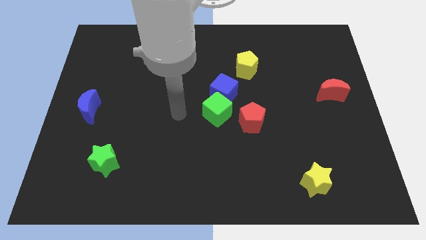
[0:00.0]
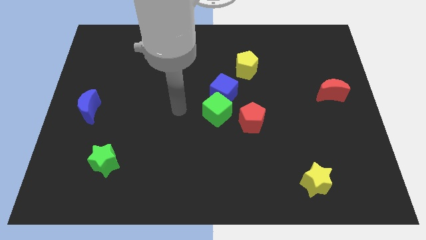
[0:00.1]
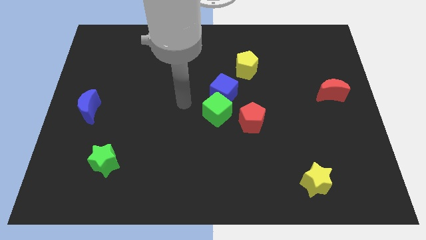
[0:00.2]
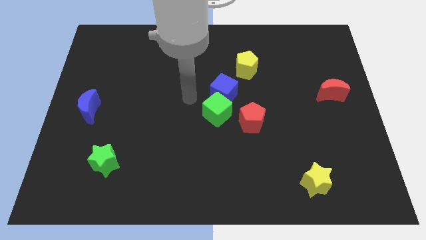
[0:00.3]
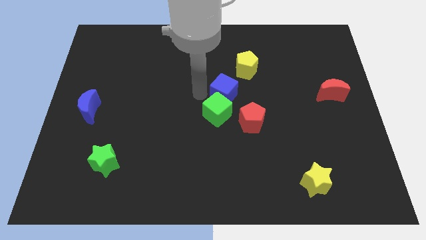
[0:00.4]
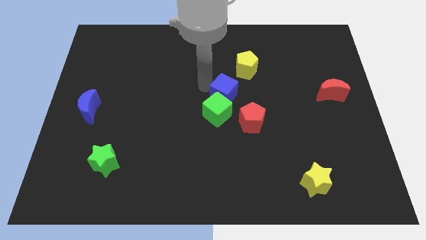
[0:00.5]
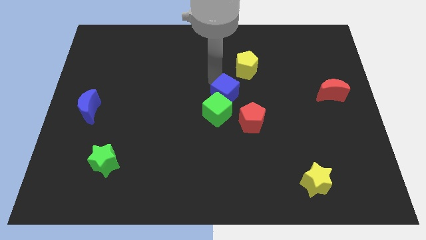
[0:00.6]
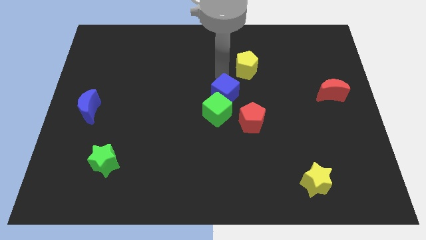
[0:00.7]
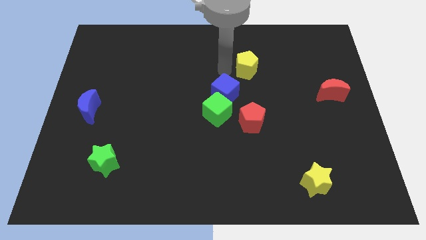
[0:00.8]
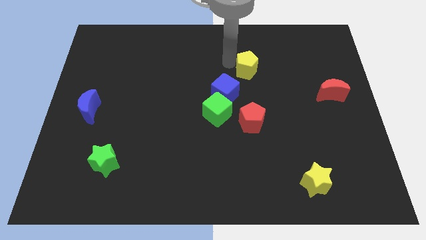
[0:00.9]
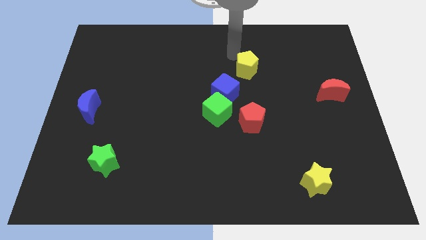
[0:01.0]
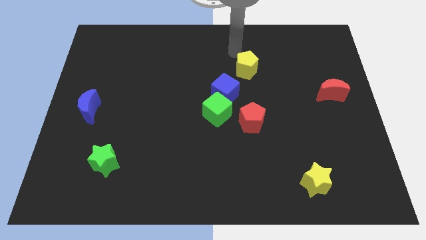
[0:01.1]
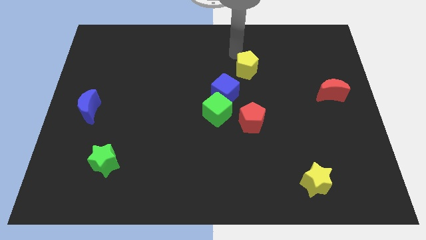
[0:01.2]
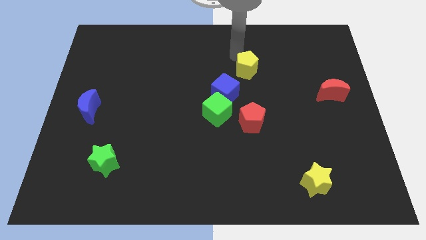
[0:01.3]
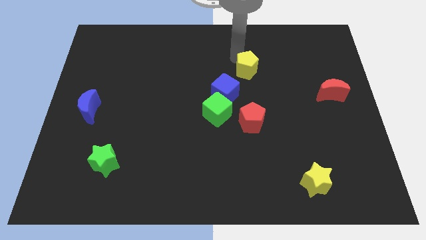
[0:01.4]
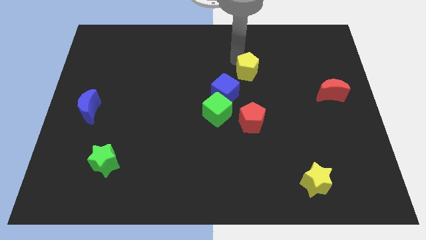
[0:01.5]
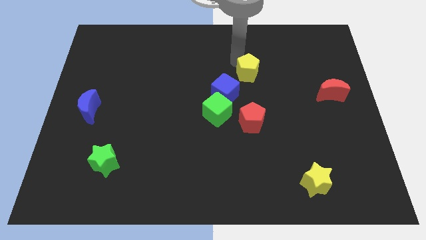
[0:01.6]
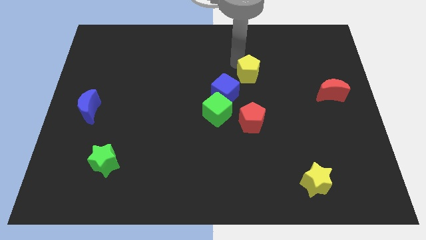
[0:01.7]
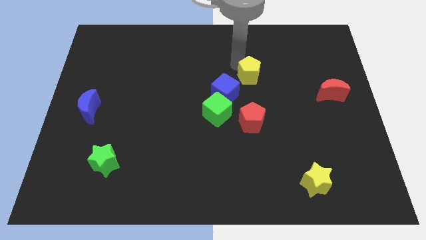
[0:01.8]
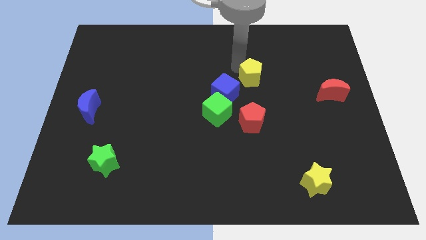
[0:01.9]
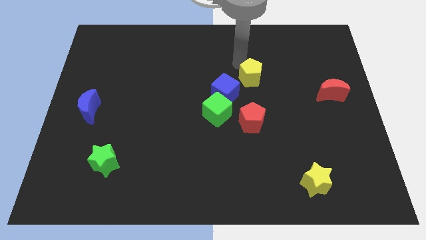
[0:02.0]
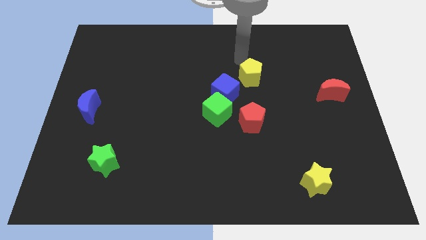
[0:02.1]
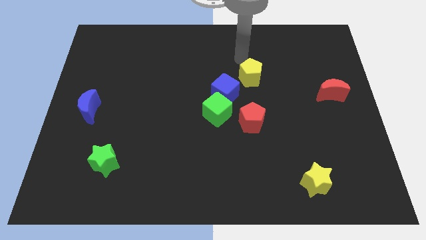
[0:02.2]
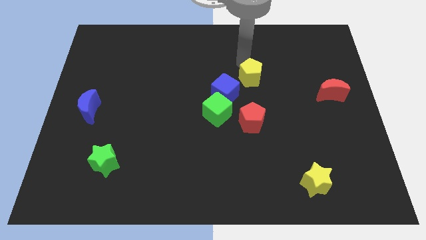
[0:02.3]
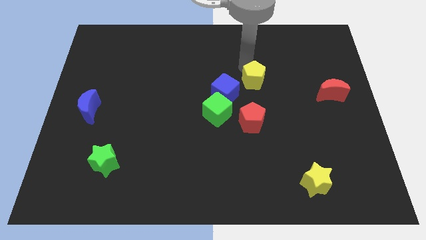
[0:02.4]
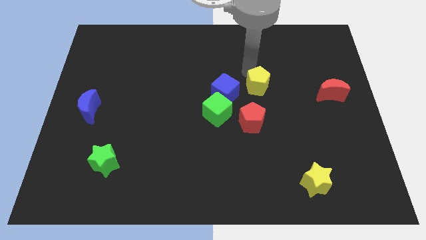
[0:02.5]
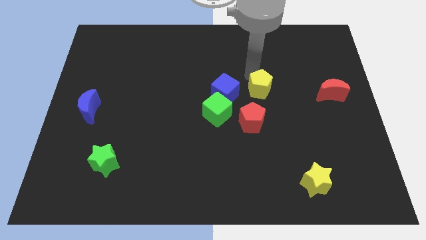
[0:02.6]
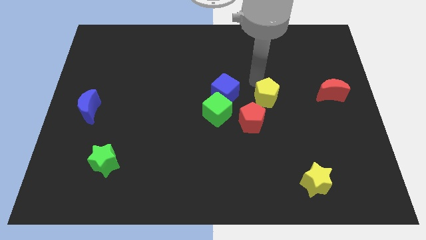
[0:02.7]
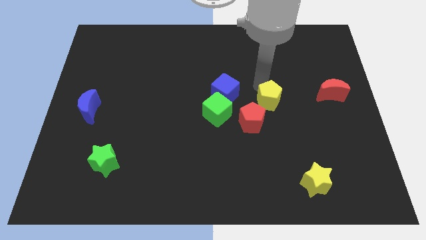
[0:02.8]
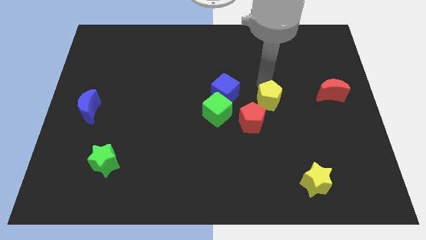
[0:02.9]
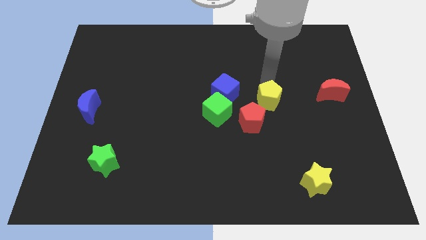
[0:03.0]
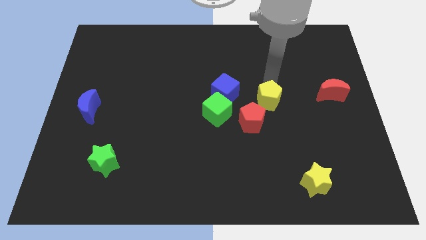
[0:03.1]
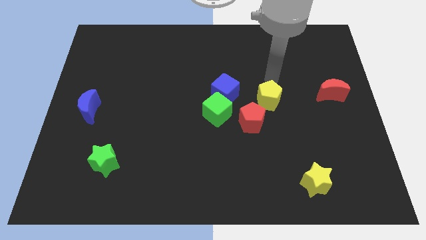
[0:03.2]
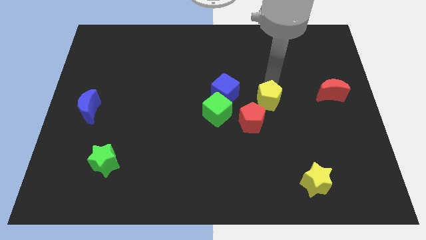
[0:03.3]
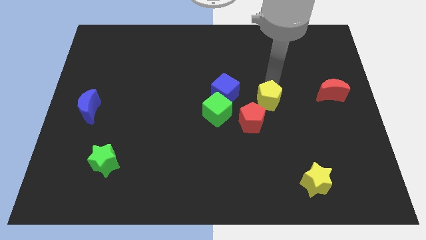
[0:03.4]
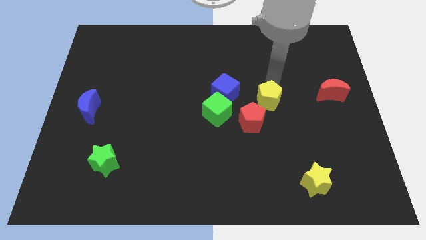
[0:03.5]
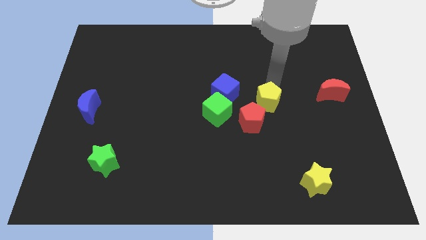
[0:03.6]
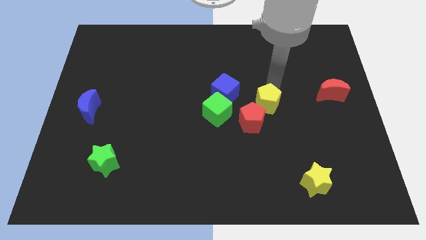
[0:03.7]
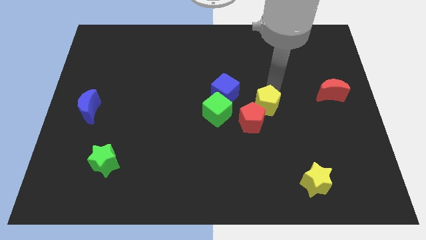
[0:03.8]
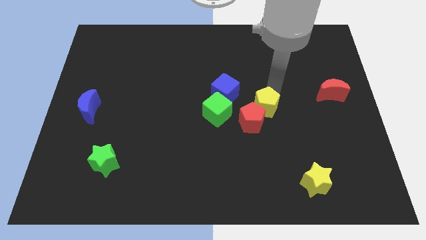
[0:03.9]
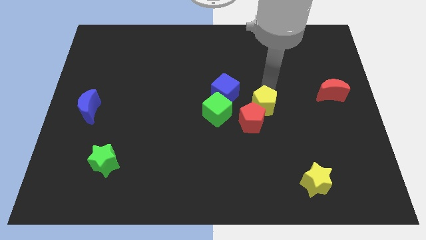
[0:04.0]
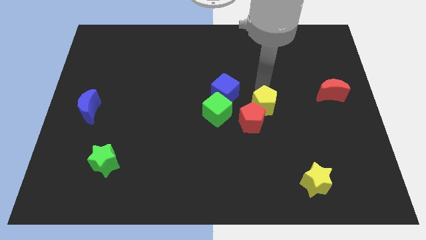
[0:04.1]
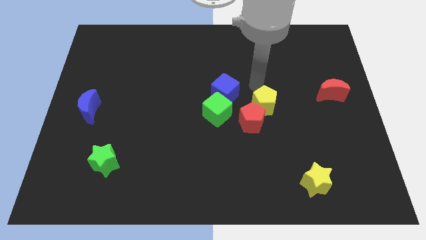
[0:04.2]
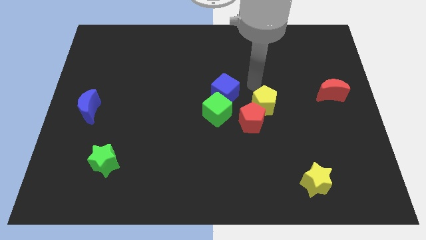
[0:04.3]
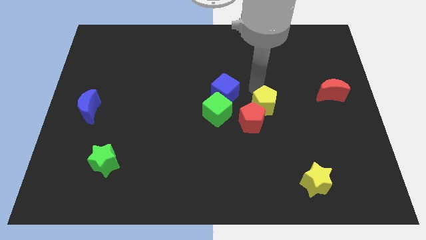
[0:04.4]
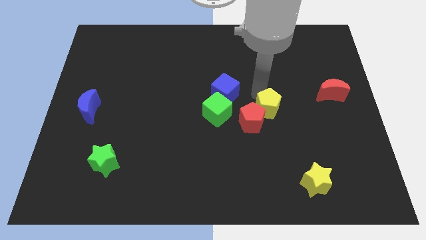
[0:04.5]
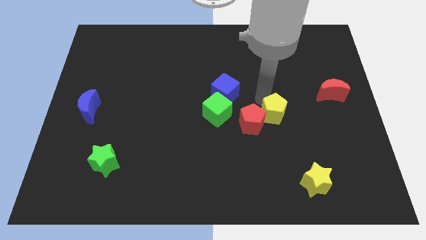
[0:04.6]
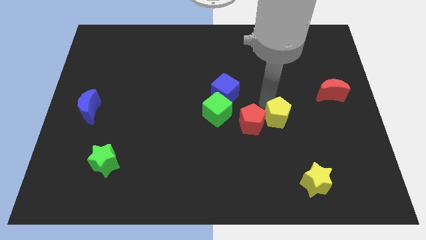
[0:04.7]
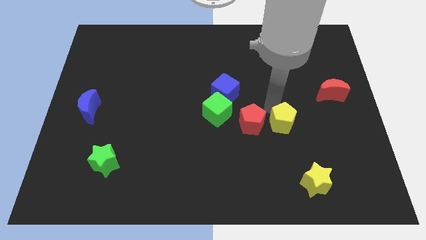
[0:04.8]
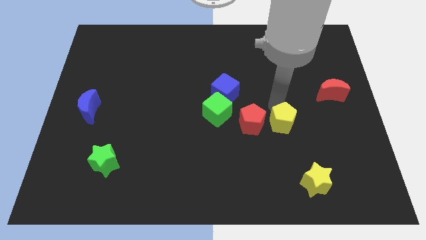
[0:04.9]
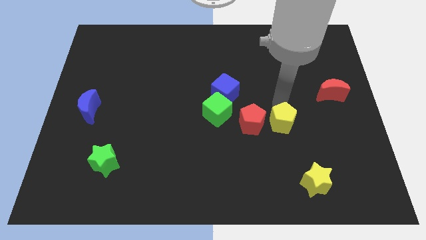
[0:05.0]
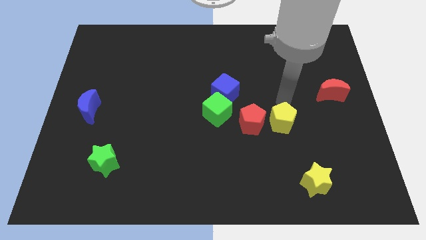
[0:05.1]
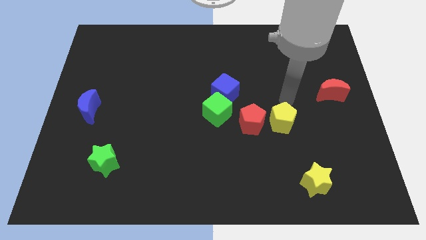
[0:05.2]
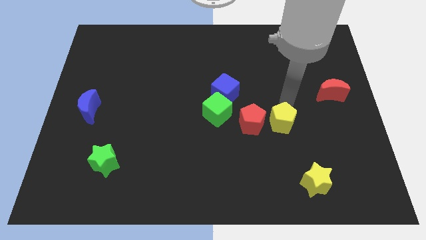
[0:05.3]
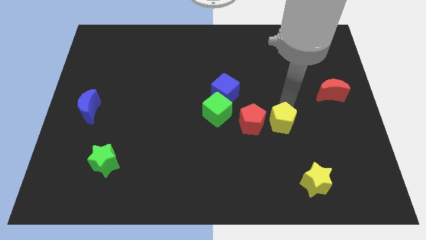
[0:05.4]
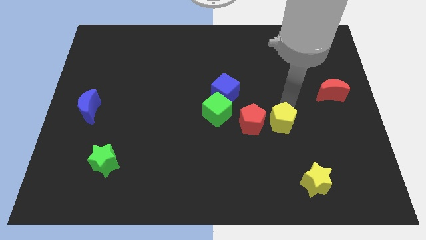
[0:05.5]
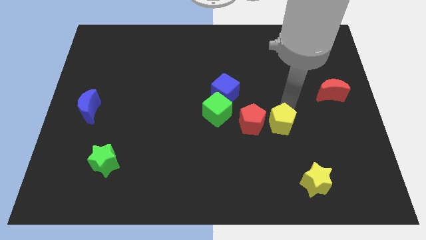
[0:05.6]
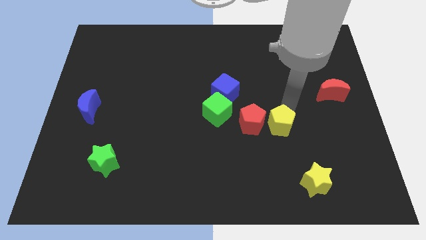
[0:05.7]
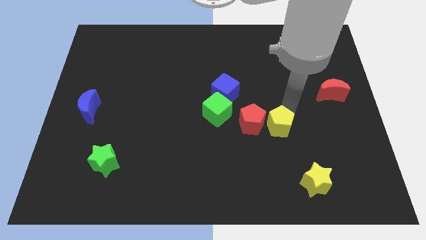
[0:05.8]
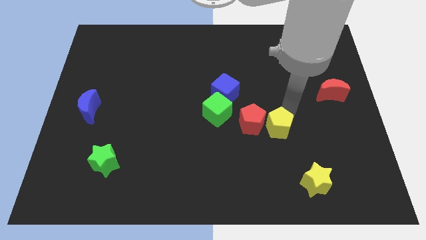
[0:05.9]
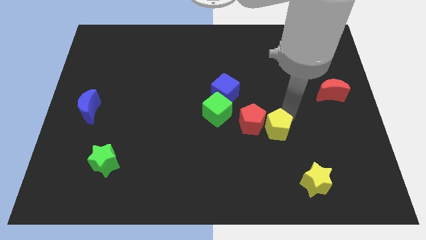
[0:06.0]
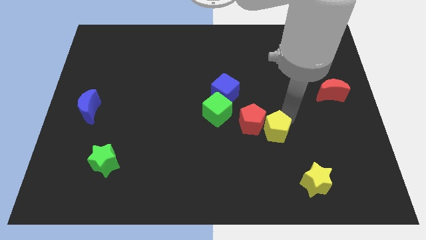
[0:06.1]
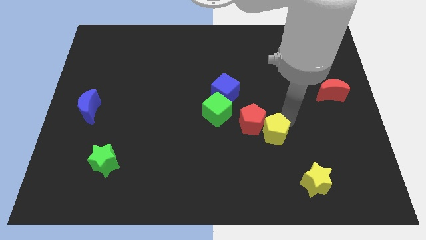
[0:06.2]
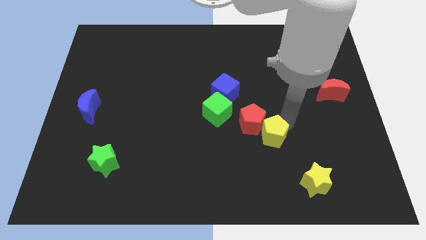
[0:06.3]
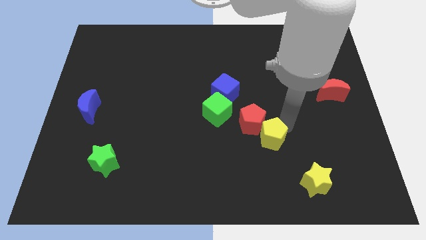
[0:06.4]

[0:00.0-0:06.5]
push the yellow pentagon downwards

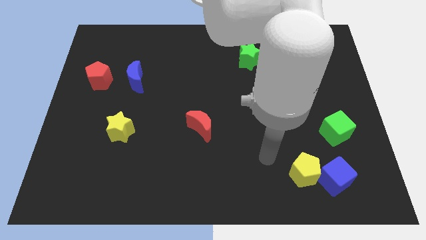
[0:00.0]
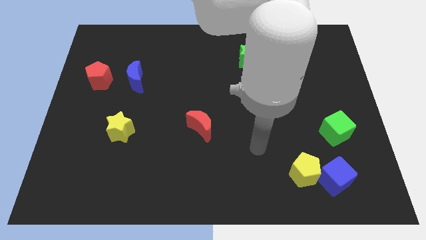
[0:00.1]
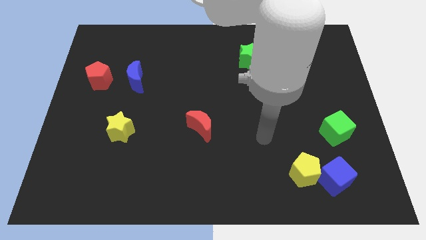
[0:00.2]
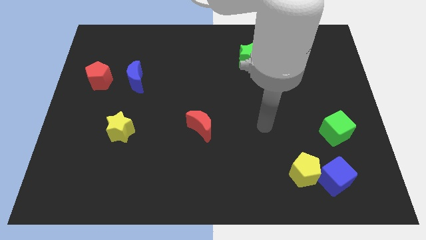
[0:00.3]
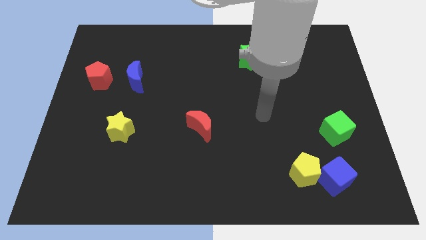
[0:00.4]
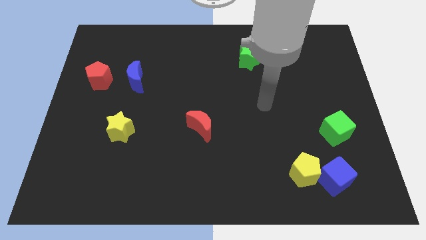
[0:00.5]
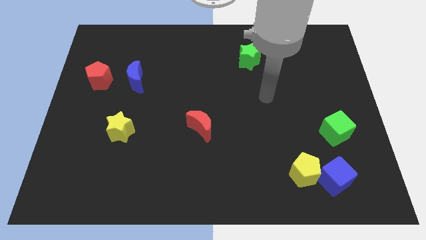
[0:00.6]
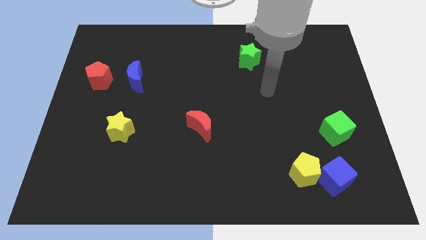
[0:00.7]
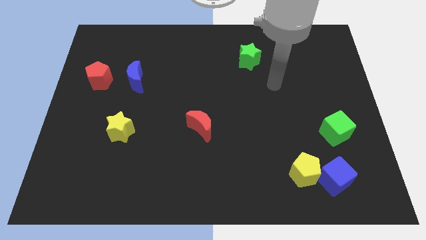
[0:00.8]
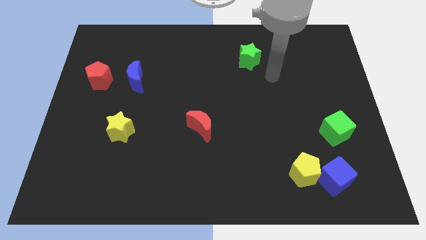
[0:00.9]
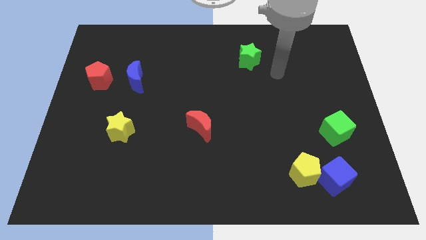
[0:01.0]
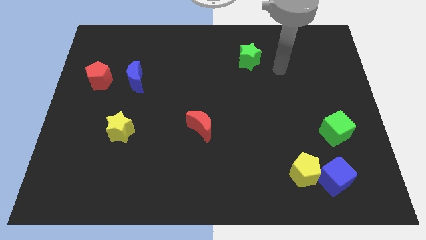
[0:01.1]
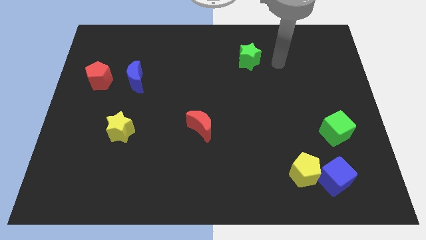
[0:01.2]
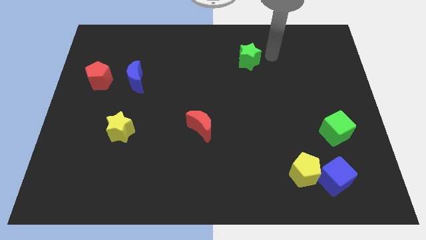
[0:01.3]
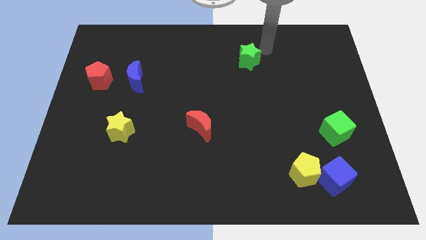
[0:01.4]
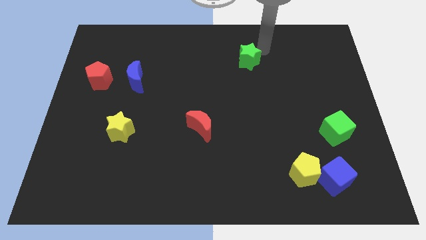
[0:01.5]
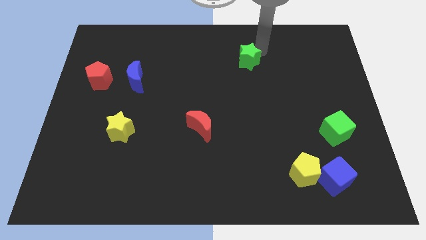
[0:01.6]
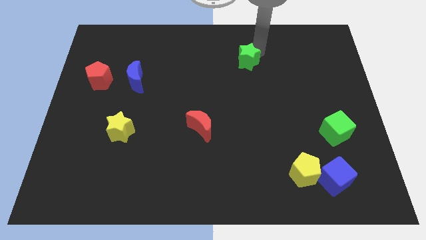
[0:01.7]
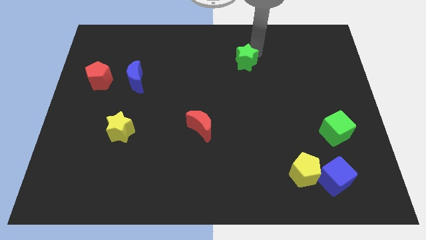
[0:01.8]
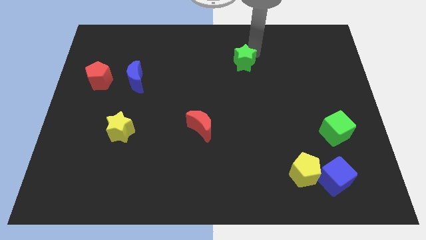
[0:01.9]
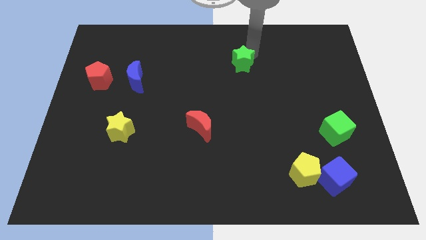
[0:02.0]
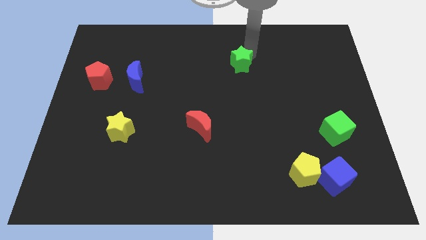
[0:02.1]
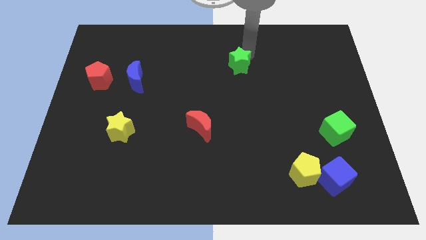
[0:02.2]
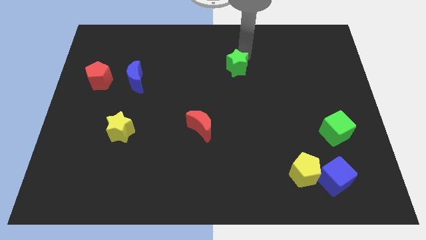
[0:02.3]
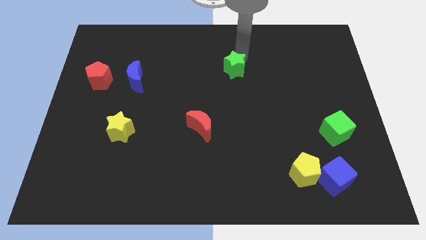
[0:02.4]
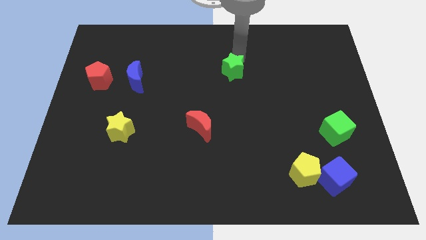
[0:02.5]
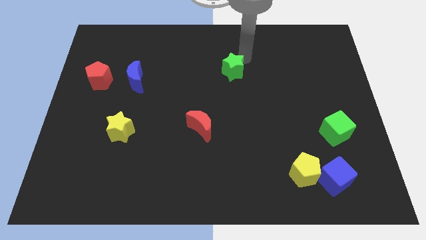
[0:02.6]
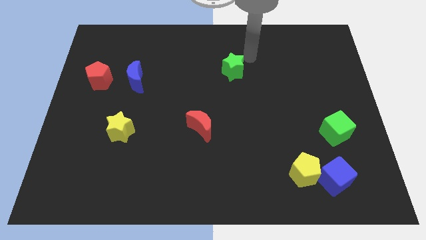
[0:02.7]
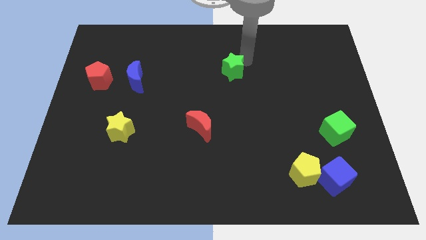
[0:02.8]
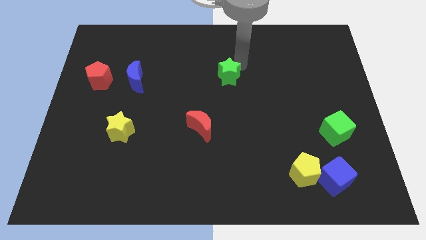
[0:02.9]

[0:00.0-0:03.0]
slightly move the green star down and to the left diagonally
